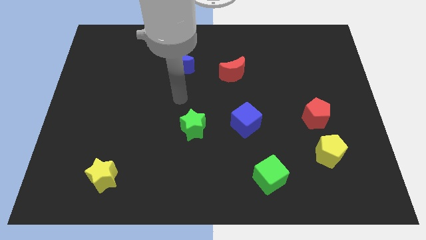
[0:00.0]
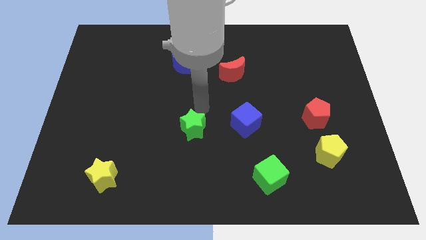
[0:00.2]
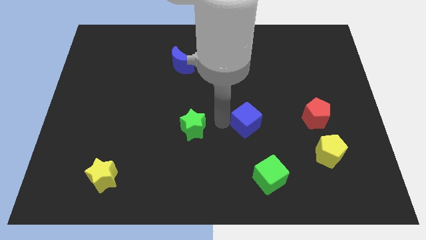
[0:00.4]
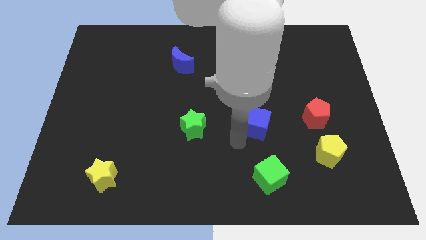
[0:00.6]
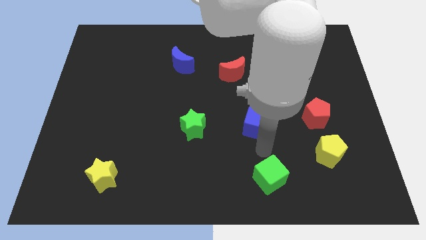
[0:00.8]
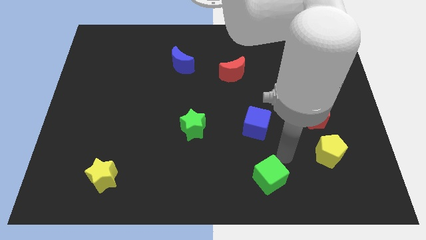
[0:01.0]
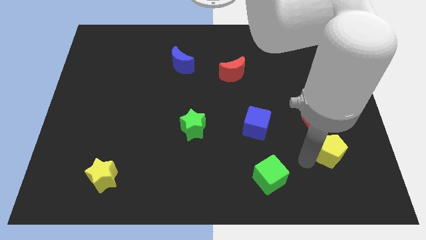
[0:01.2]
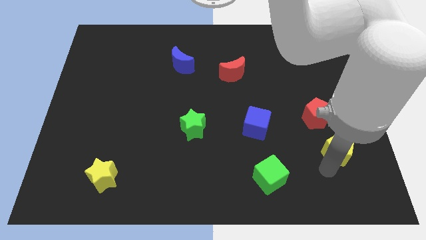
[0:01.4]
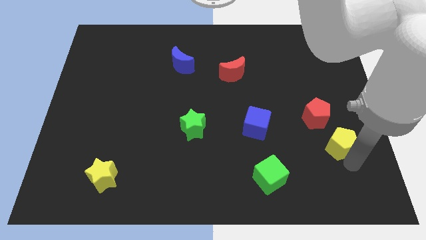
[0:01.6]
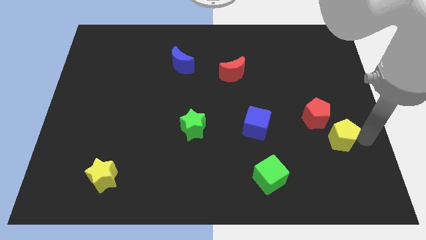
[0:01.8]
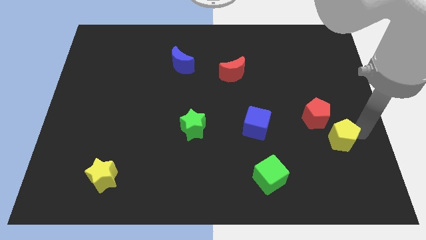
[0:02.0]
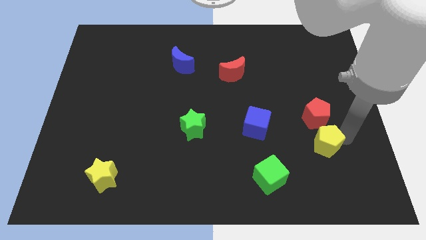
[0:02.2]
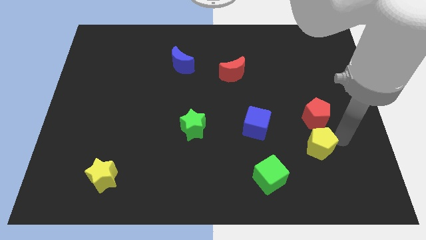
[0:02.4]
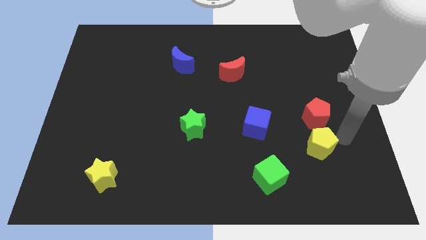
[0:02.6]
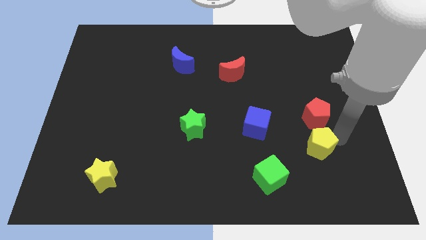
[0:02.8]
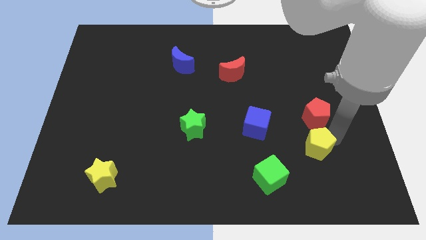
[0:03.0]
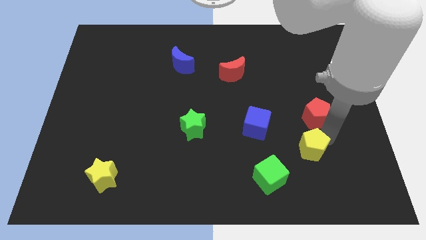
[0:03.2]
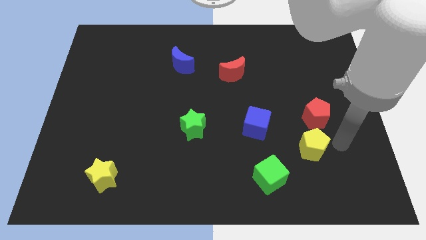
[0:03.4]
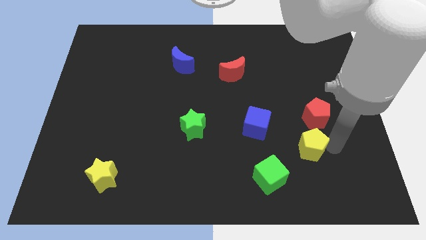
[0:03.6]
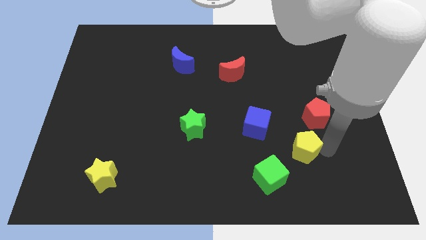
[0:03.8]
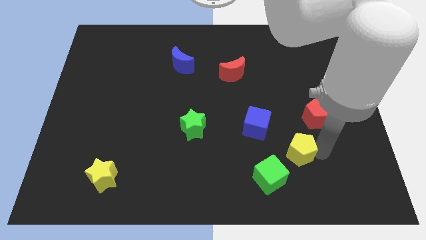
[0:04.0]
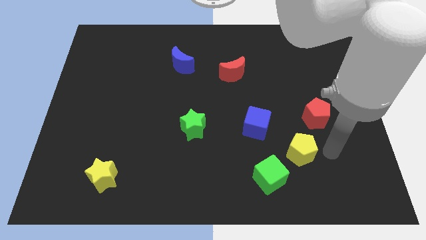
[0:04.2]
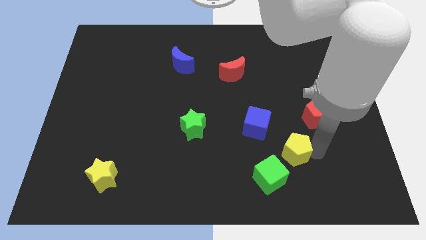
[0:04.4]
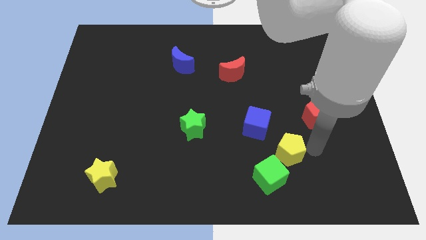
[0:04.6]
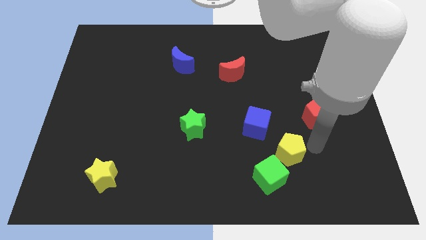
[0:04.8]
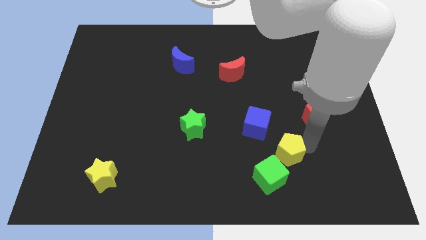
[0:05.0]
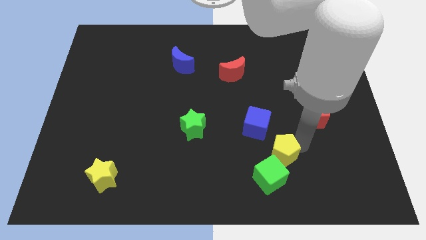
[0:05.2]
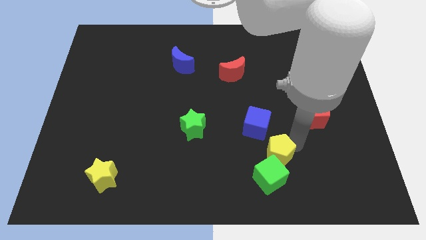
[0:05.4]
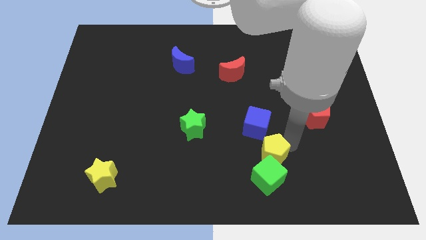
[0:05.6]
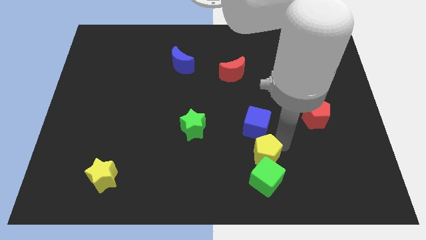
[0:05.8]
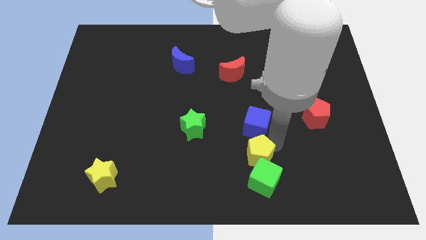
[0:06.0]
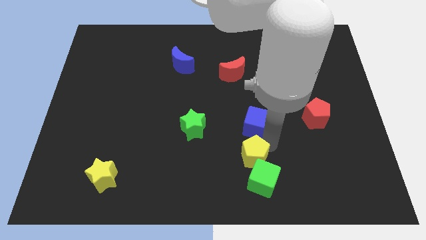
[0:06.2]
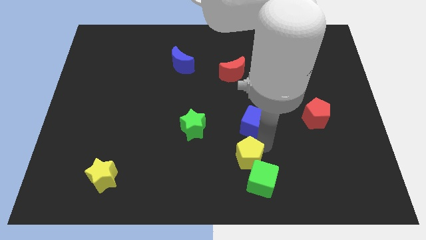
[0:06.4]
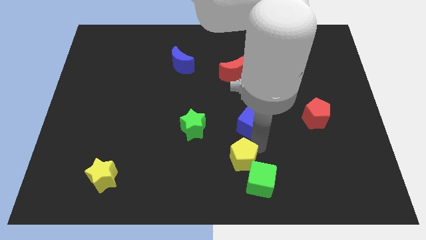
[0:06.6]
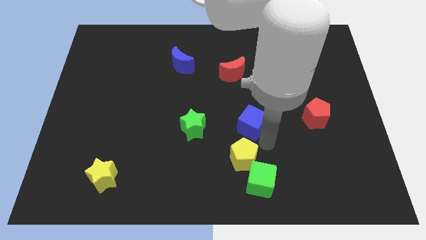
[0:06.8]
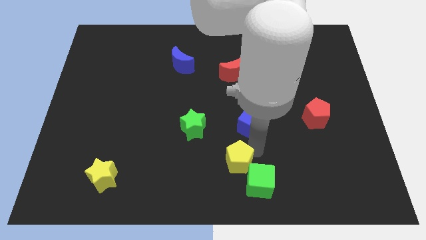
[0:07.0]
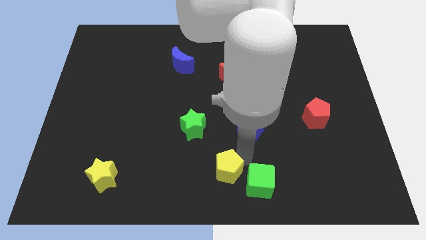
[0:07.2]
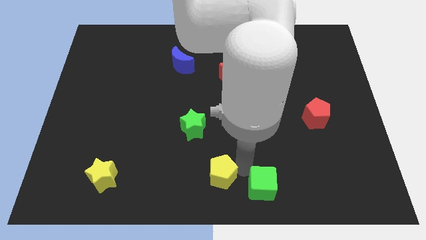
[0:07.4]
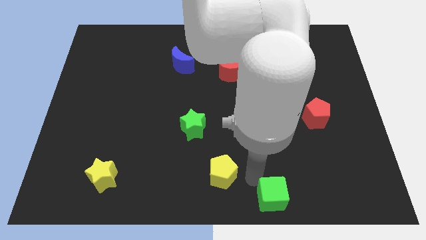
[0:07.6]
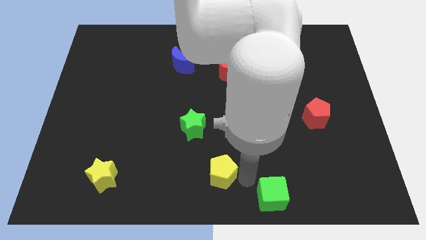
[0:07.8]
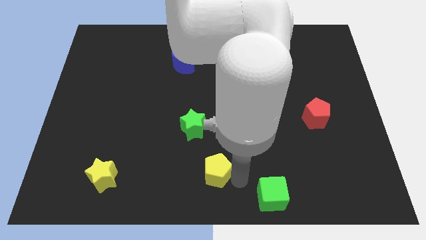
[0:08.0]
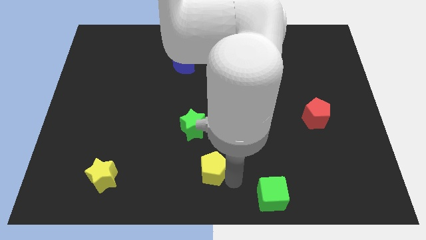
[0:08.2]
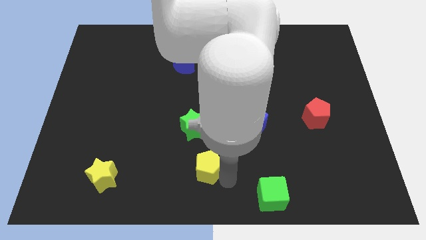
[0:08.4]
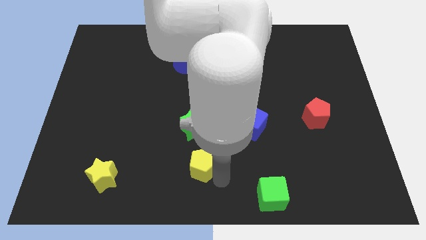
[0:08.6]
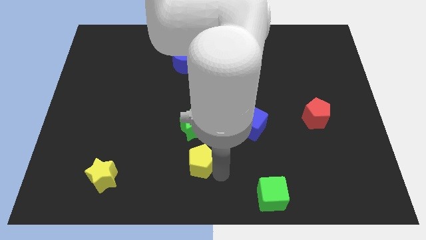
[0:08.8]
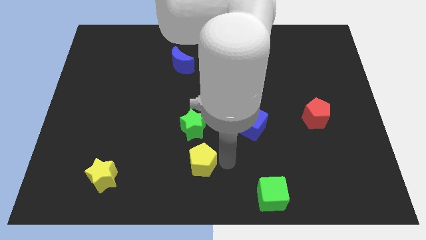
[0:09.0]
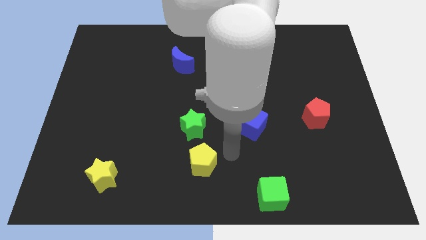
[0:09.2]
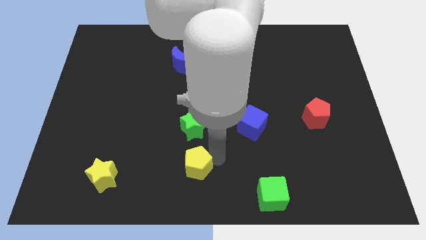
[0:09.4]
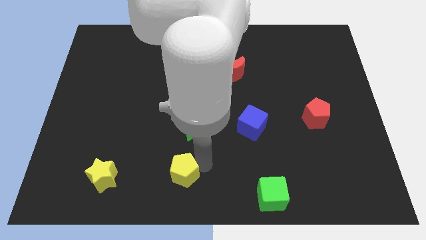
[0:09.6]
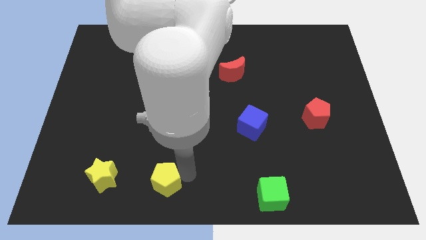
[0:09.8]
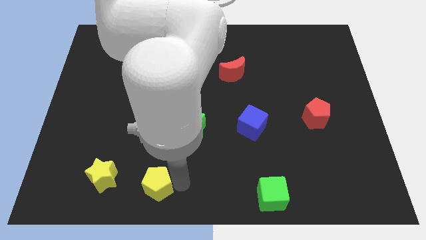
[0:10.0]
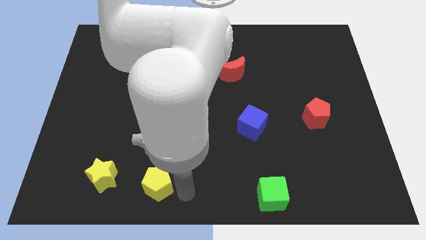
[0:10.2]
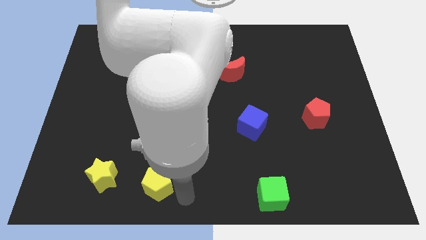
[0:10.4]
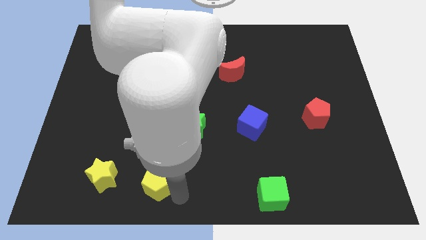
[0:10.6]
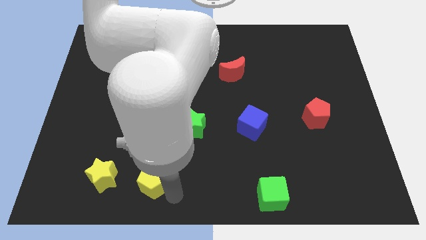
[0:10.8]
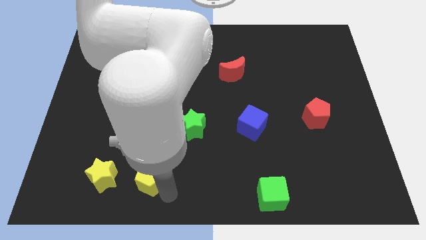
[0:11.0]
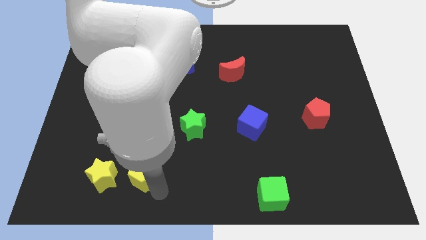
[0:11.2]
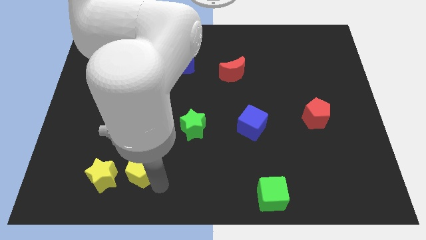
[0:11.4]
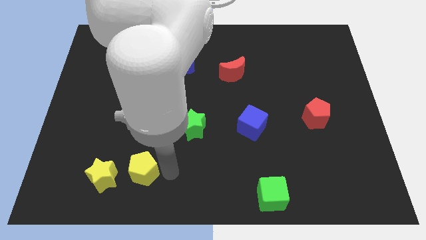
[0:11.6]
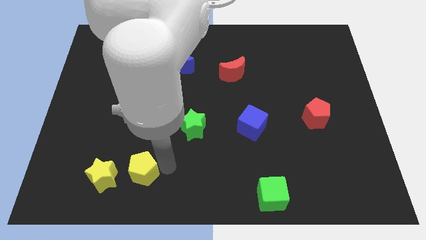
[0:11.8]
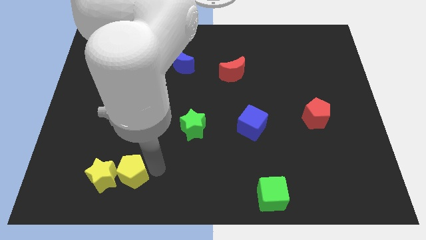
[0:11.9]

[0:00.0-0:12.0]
slide the yellow pentagon close to the yellow star

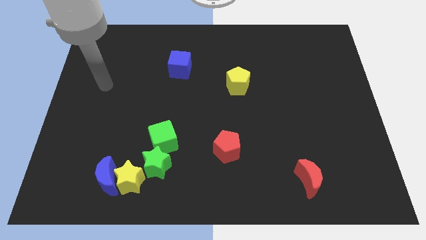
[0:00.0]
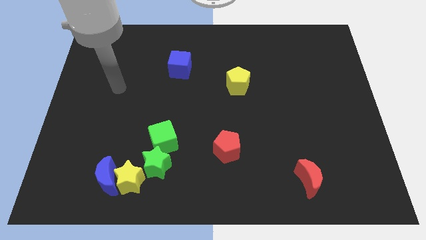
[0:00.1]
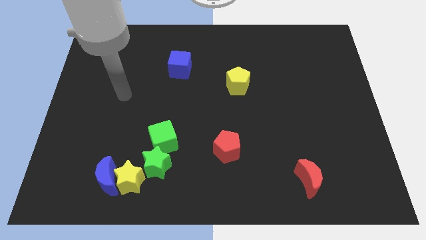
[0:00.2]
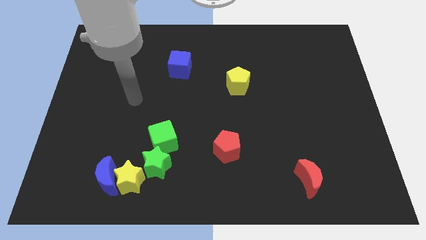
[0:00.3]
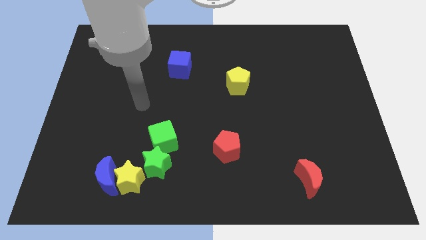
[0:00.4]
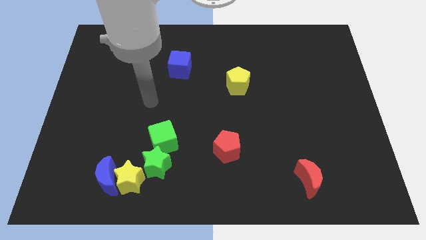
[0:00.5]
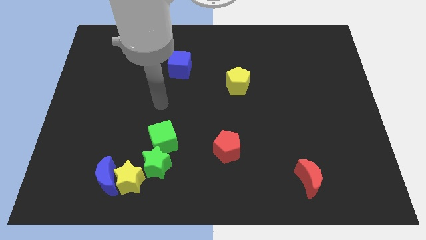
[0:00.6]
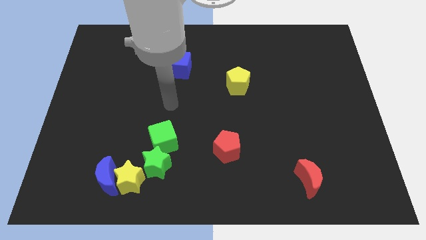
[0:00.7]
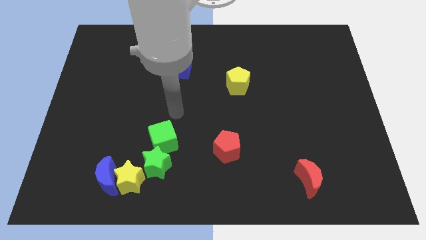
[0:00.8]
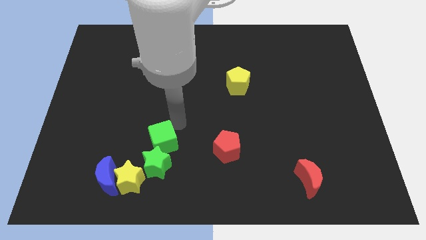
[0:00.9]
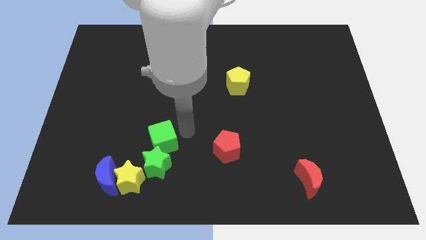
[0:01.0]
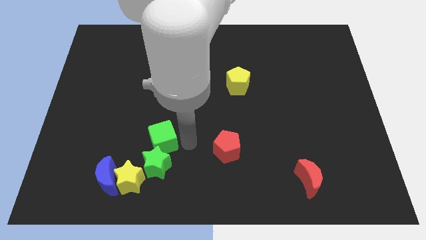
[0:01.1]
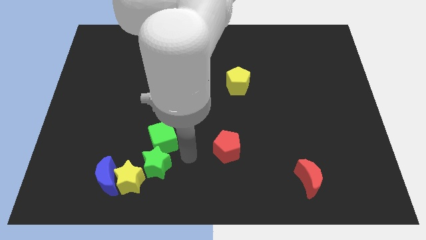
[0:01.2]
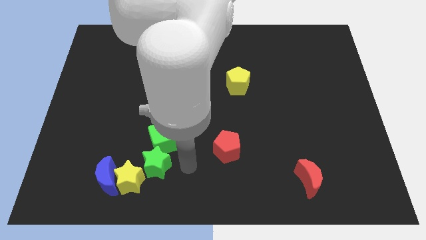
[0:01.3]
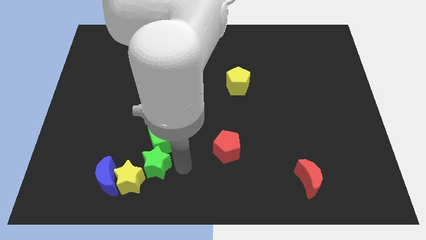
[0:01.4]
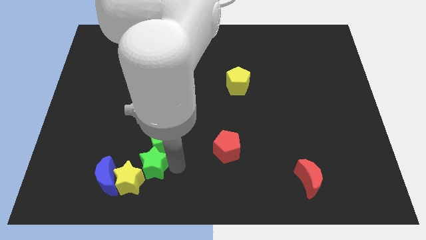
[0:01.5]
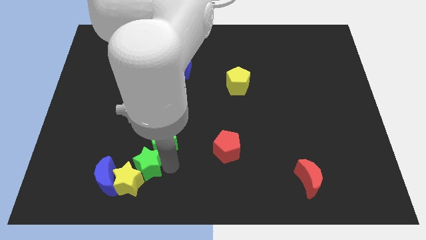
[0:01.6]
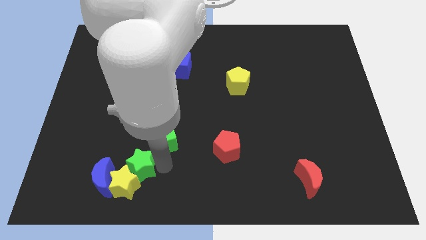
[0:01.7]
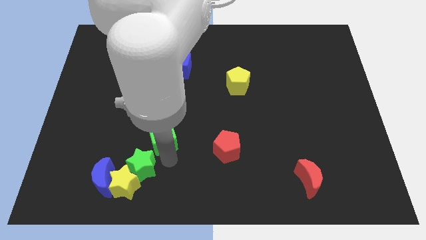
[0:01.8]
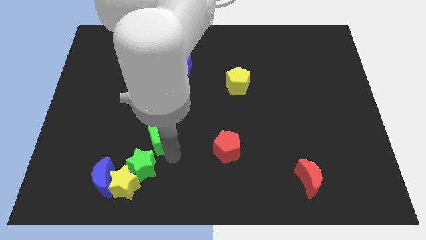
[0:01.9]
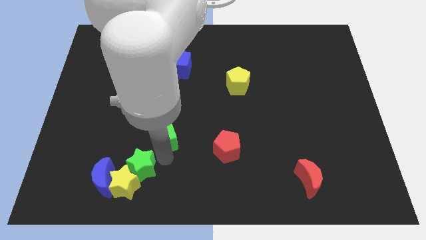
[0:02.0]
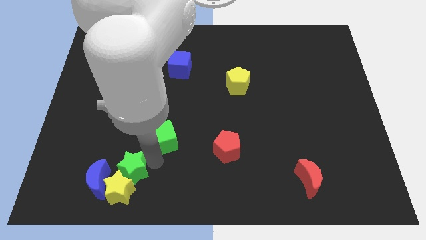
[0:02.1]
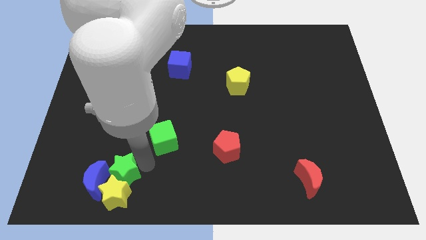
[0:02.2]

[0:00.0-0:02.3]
slide the green star next to the blue moon
